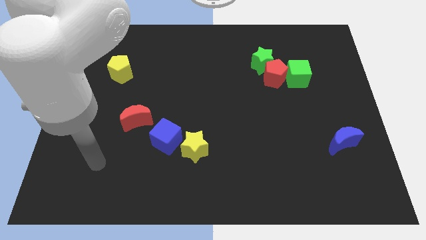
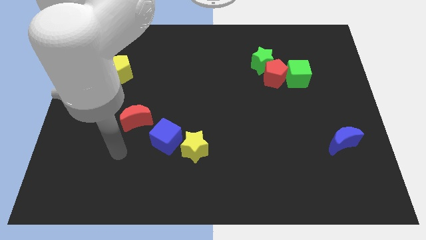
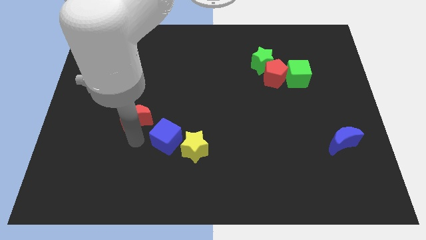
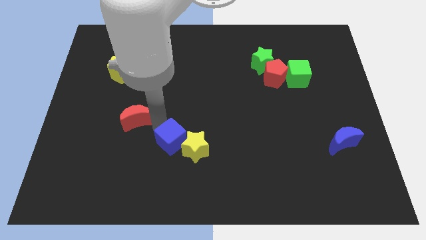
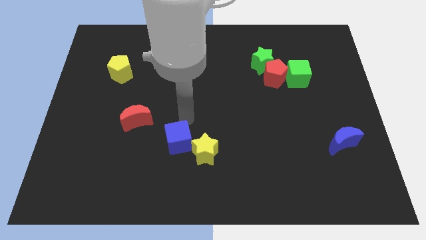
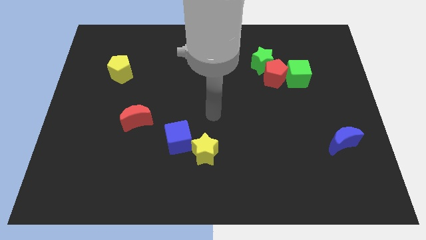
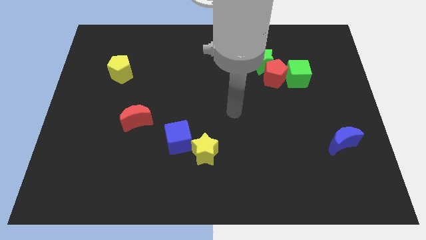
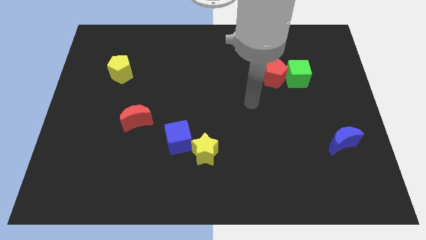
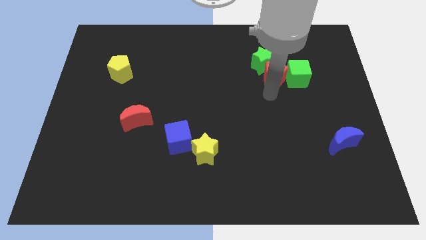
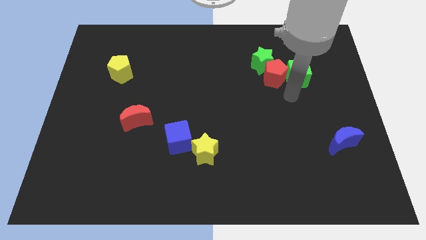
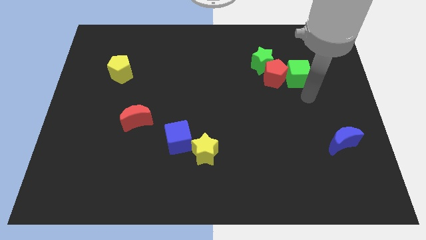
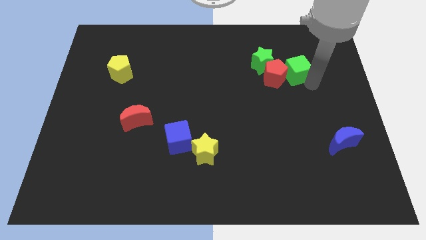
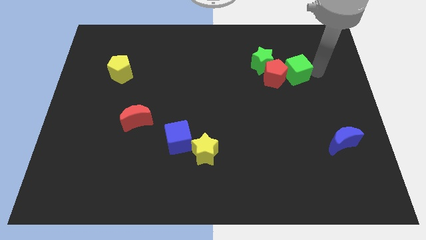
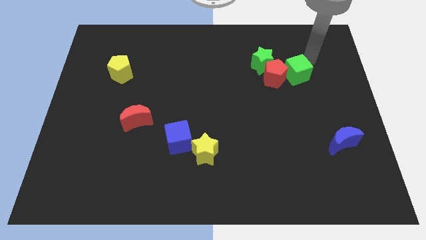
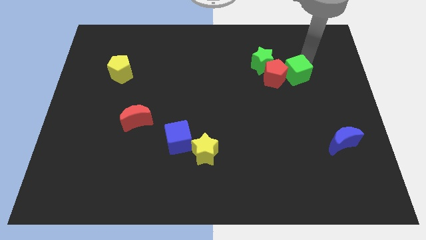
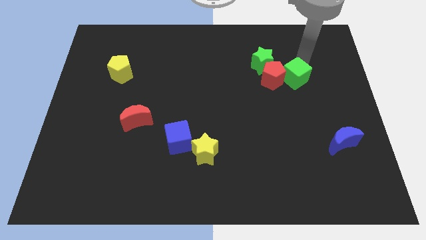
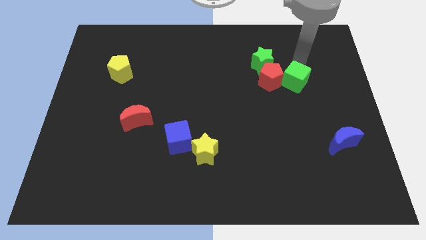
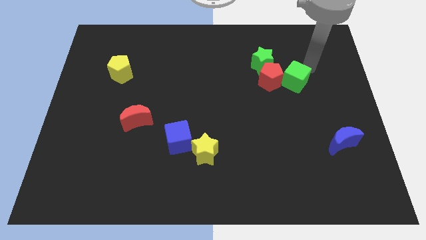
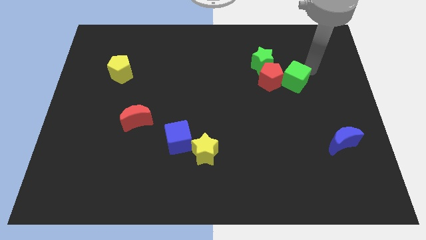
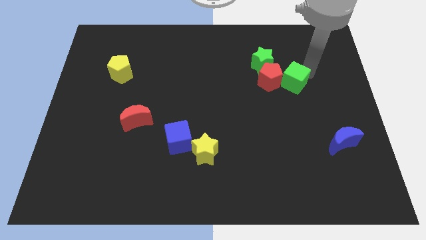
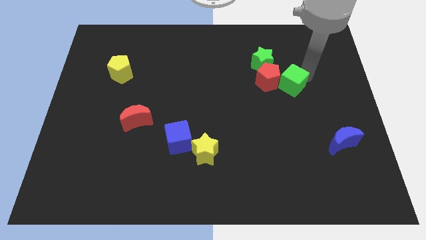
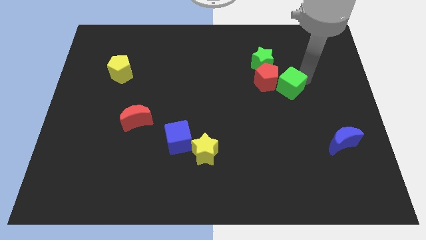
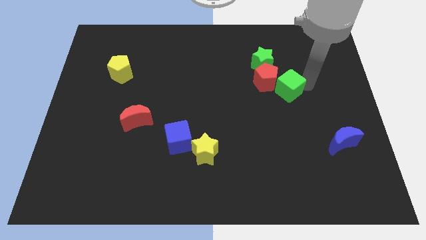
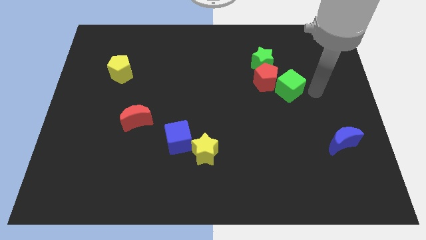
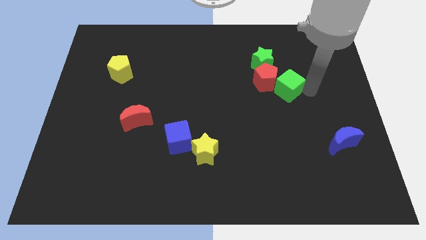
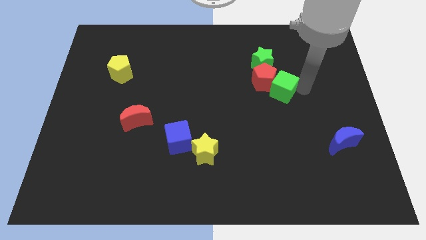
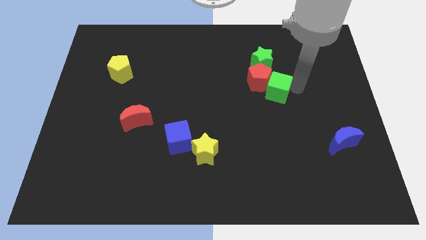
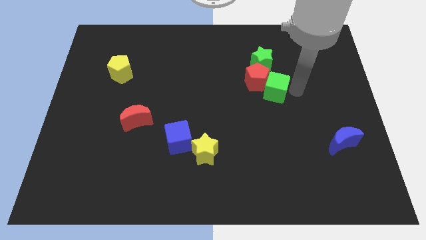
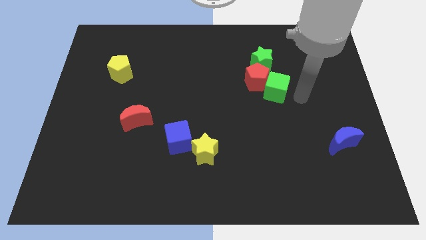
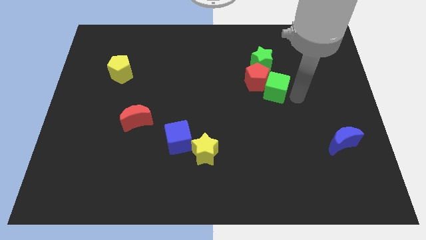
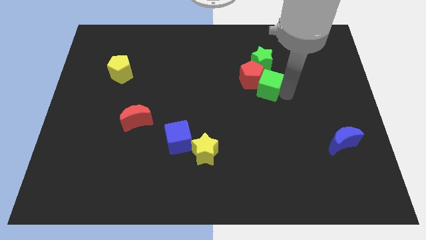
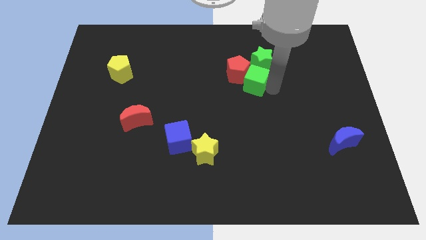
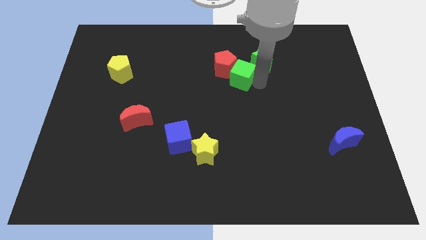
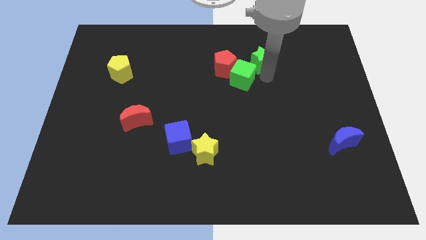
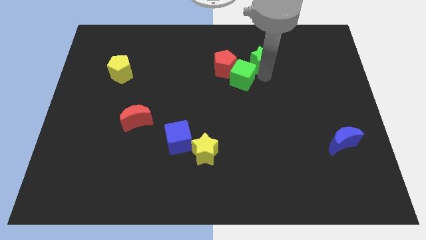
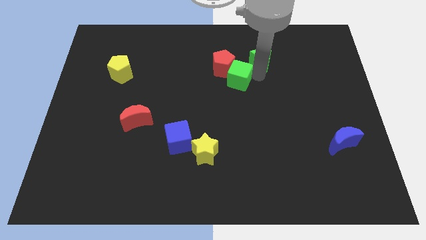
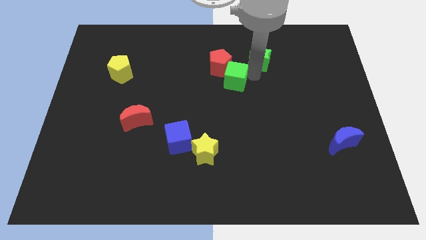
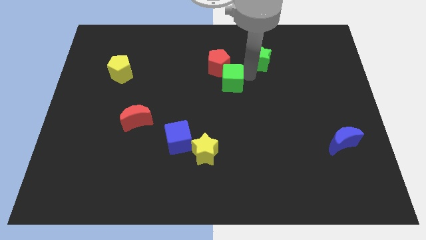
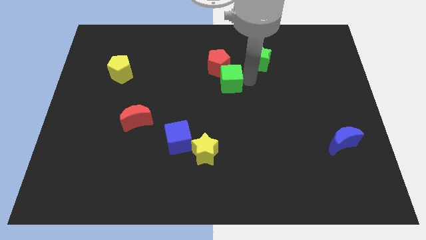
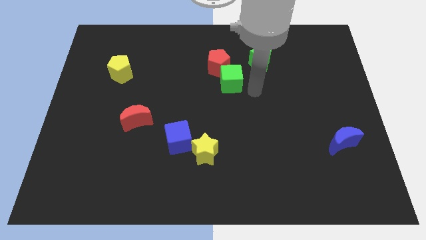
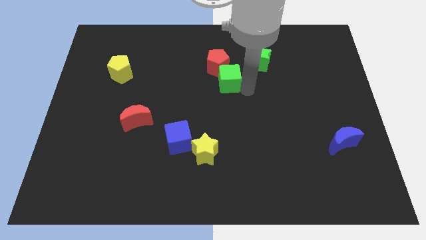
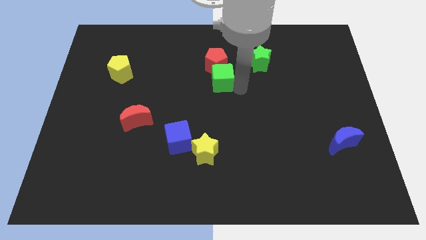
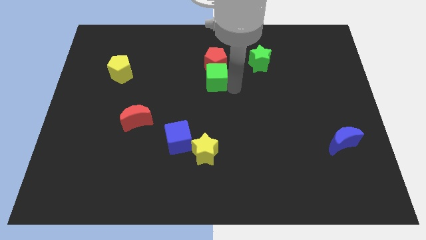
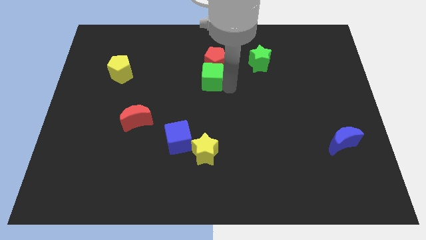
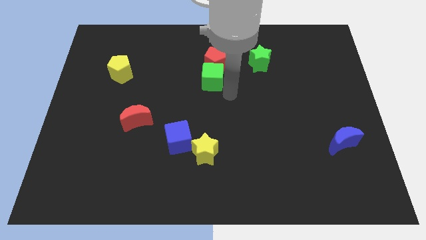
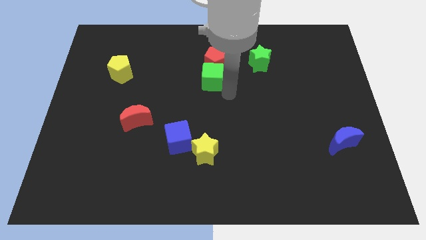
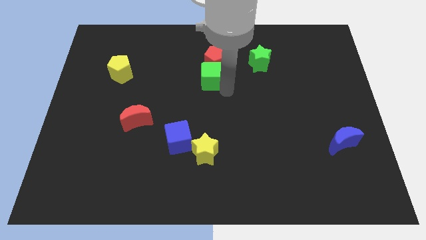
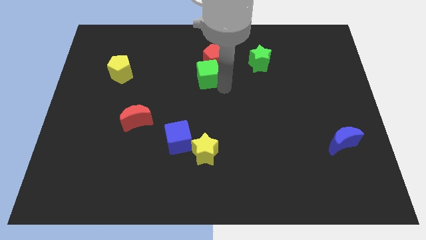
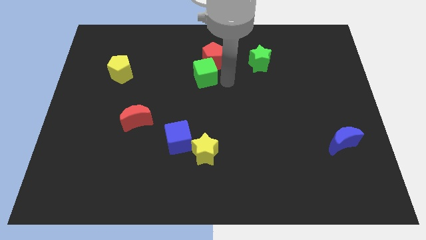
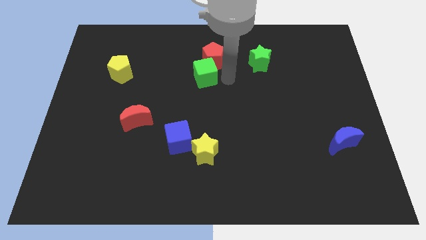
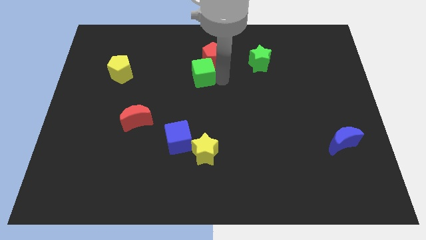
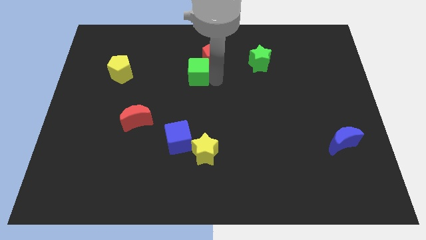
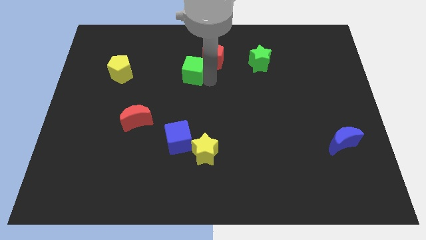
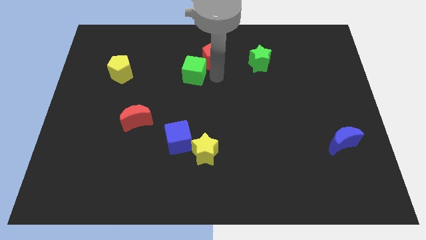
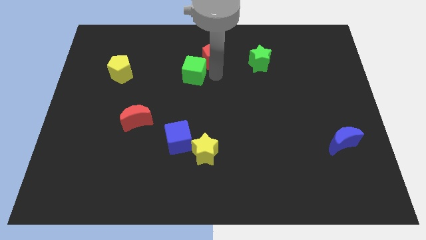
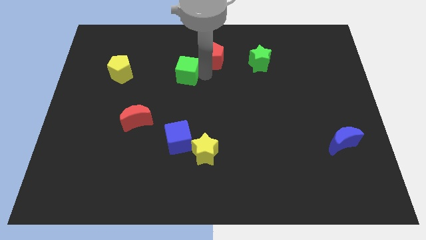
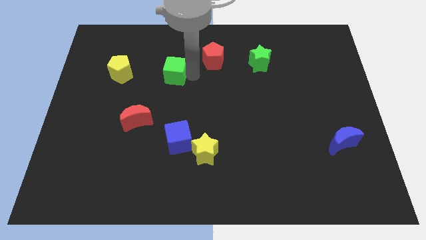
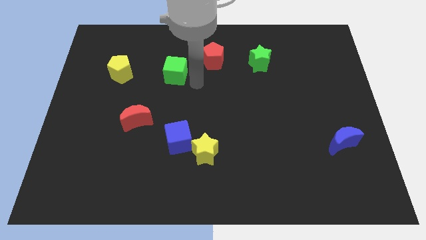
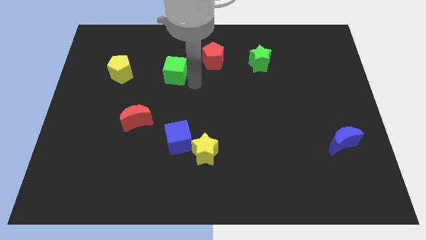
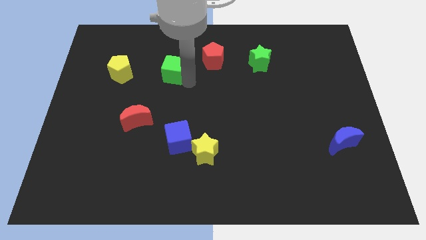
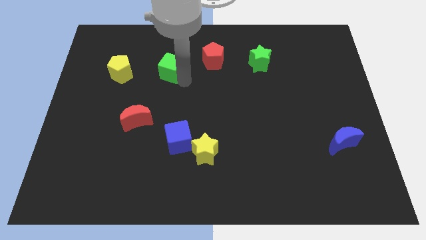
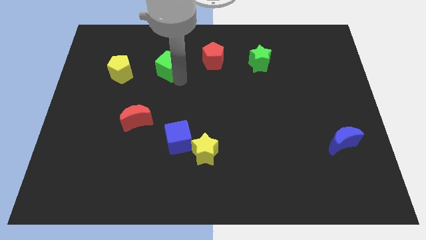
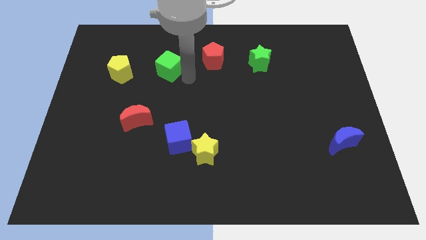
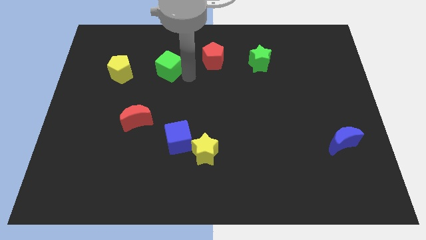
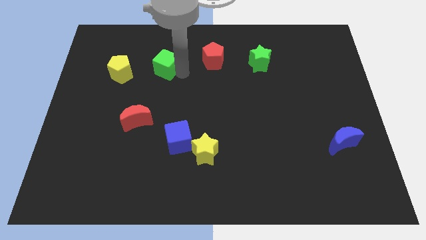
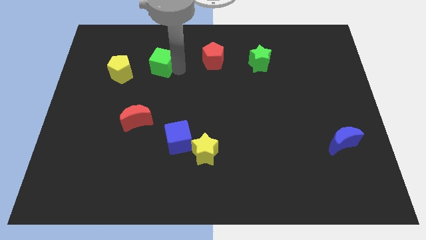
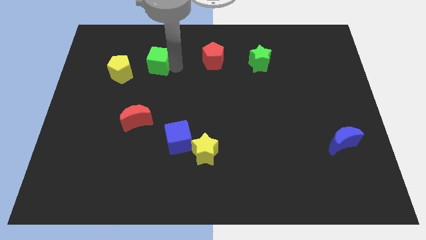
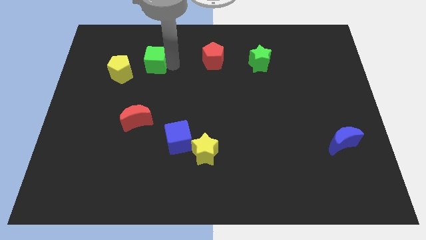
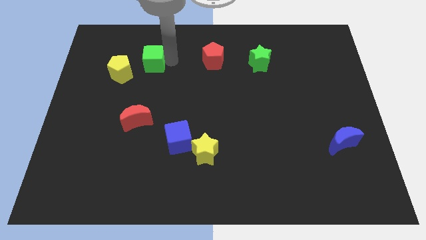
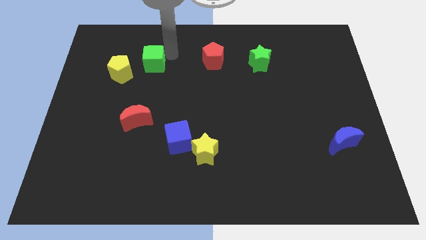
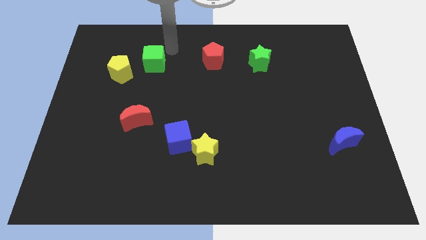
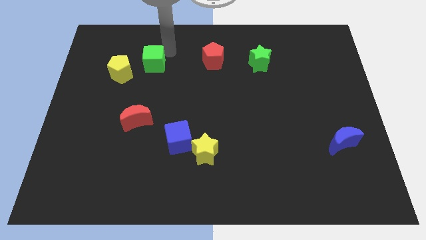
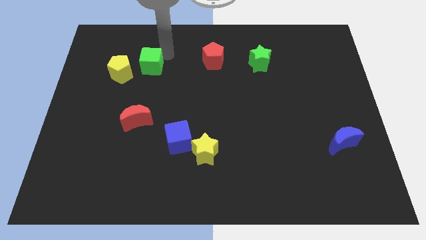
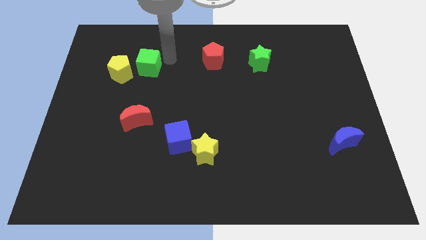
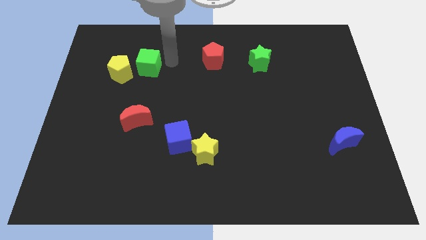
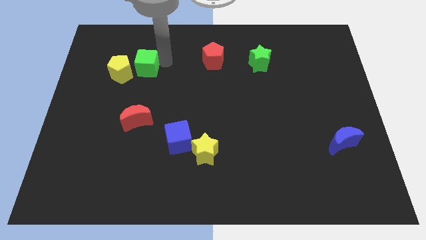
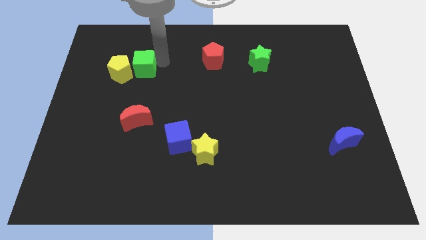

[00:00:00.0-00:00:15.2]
put the green cube next to the yellow pentagon
